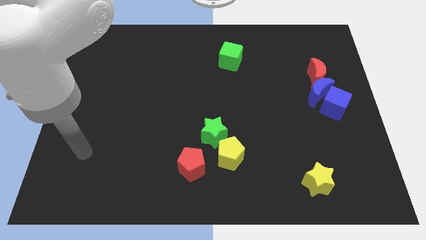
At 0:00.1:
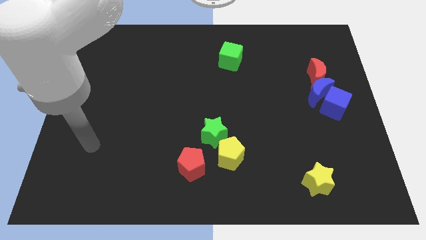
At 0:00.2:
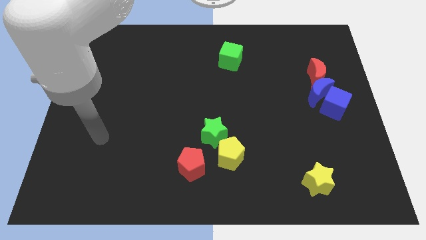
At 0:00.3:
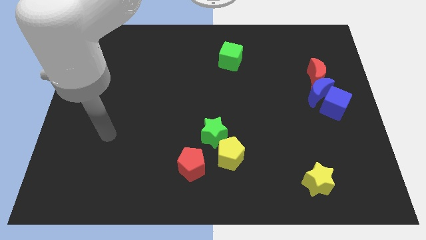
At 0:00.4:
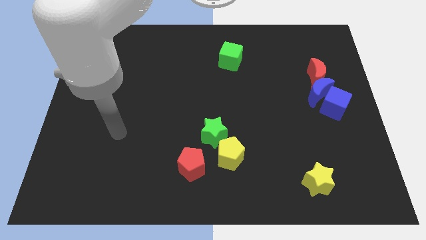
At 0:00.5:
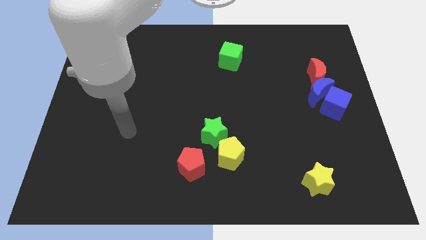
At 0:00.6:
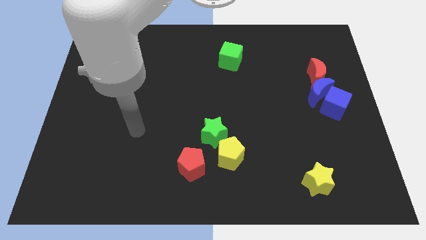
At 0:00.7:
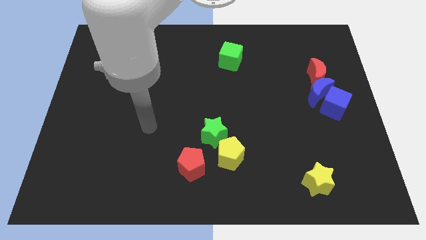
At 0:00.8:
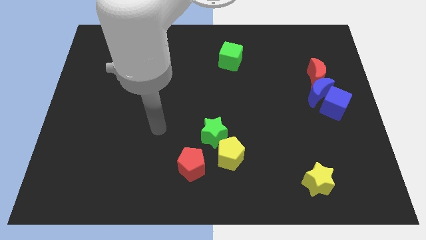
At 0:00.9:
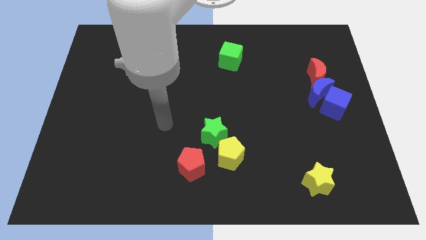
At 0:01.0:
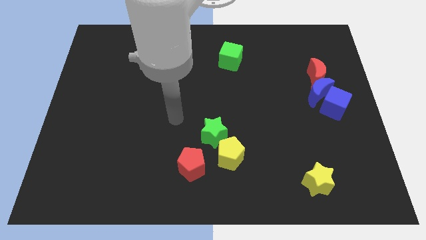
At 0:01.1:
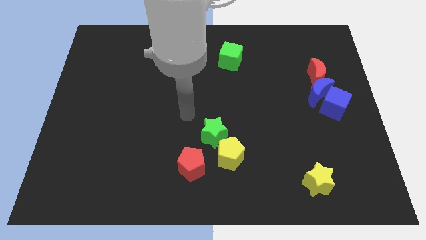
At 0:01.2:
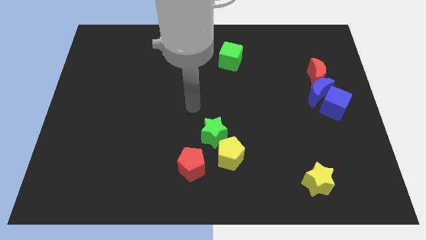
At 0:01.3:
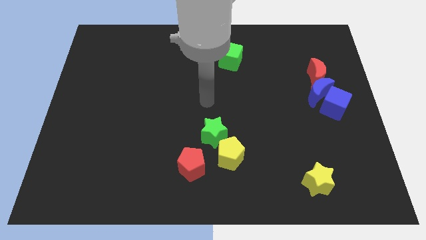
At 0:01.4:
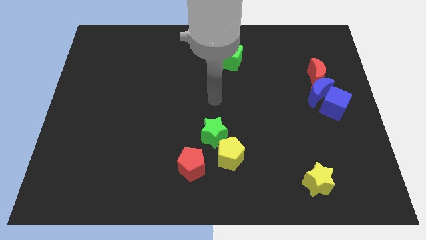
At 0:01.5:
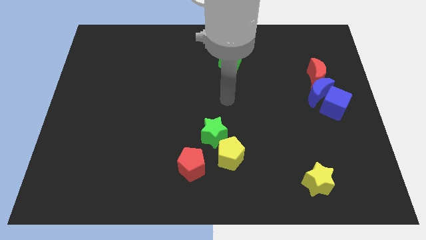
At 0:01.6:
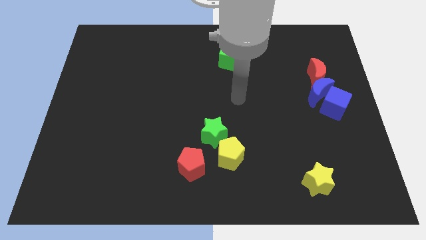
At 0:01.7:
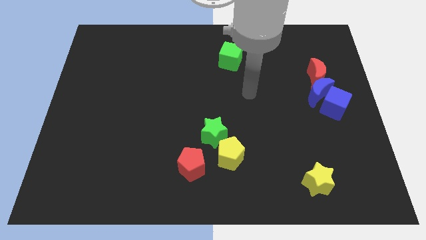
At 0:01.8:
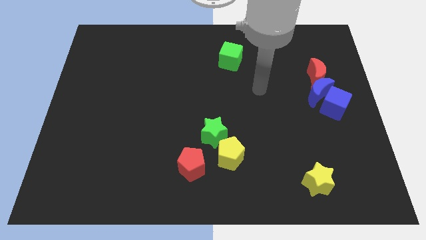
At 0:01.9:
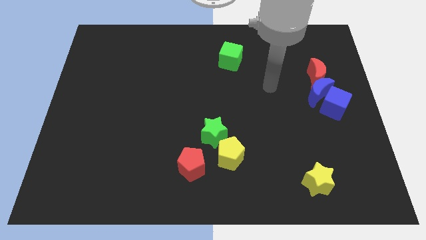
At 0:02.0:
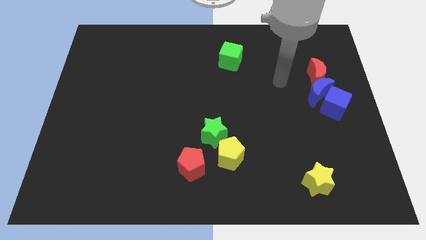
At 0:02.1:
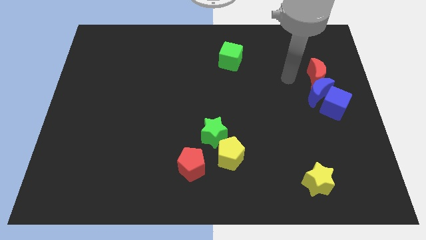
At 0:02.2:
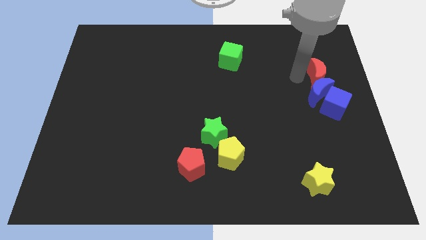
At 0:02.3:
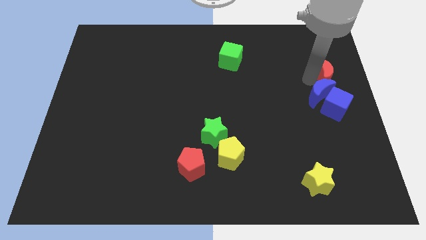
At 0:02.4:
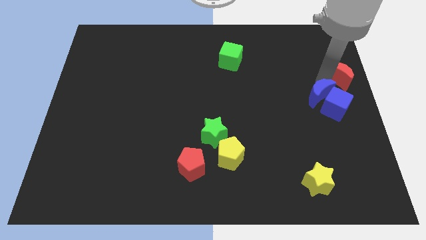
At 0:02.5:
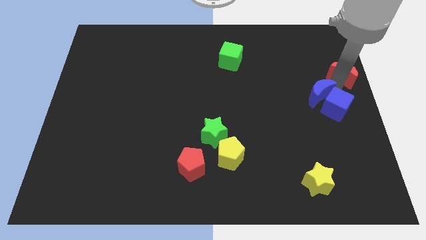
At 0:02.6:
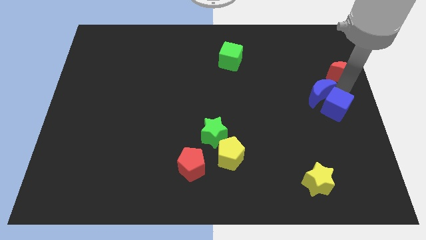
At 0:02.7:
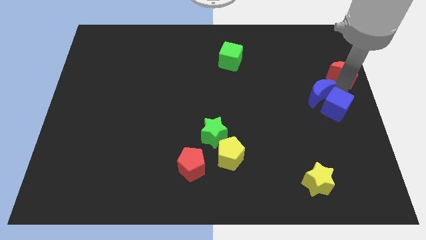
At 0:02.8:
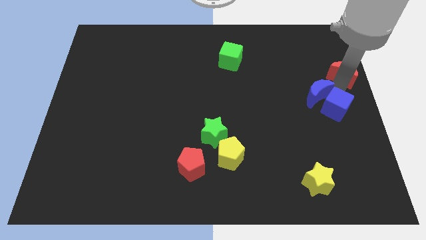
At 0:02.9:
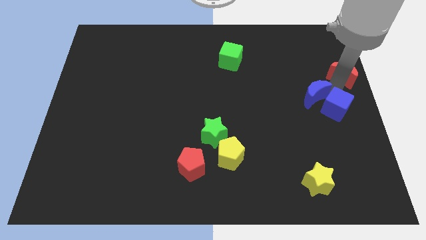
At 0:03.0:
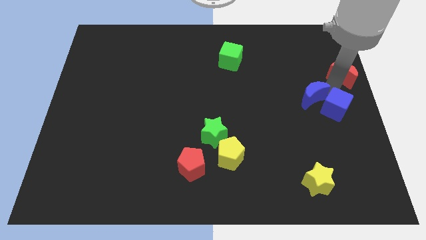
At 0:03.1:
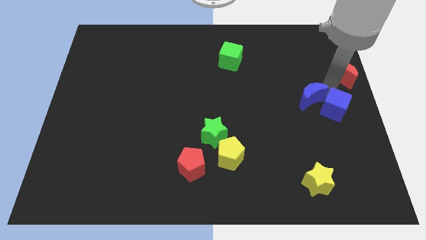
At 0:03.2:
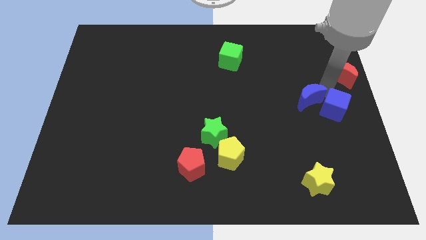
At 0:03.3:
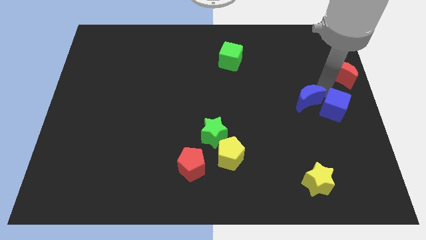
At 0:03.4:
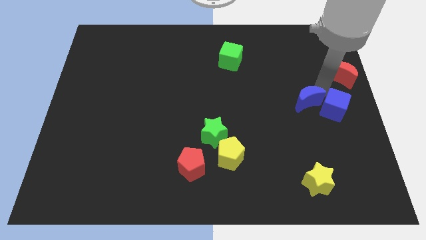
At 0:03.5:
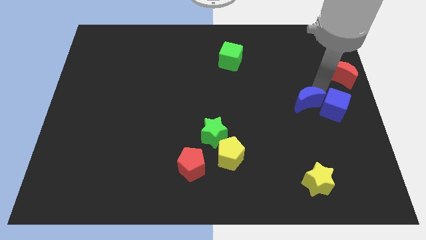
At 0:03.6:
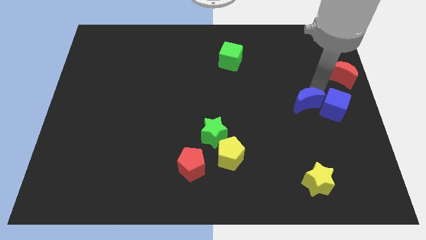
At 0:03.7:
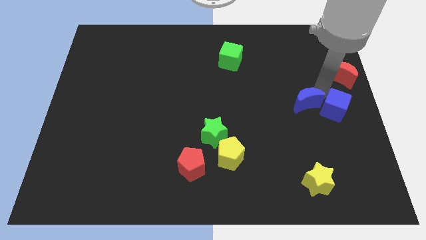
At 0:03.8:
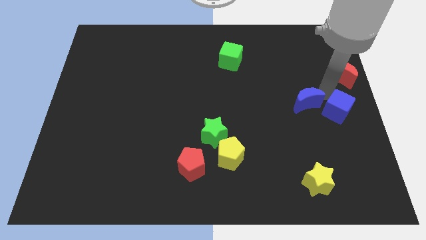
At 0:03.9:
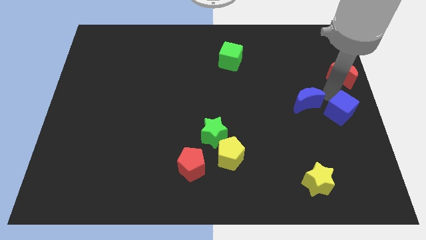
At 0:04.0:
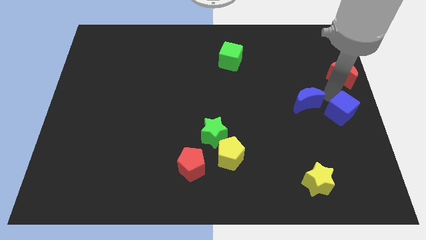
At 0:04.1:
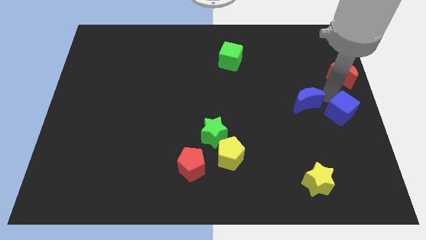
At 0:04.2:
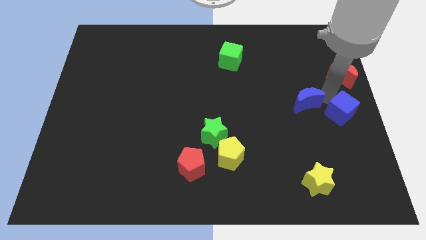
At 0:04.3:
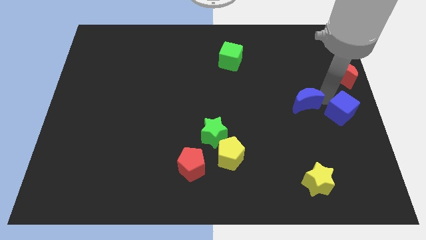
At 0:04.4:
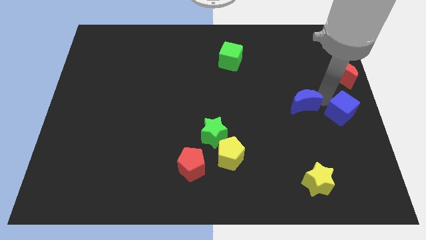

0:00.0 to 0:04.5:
pull the blue moon apart from the blue cube and red moon

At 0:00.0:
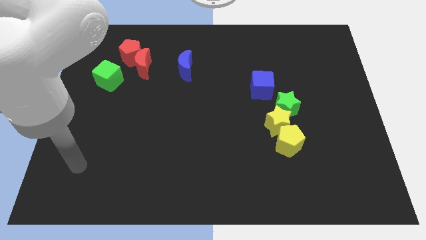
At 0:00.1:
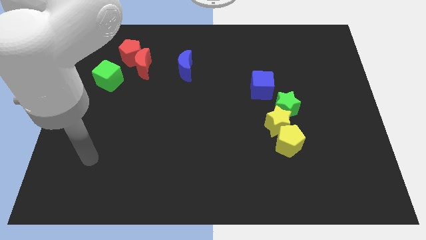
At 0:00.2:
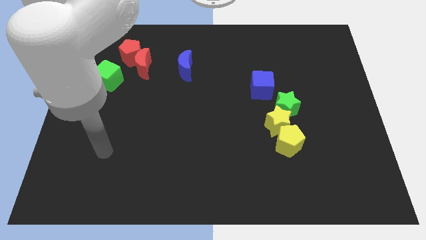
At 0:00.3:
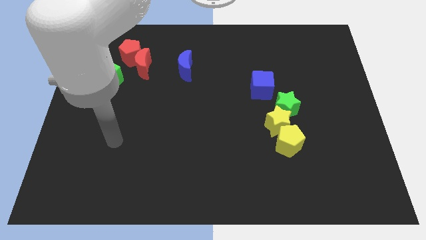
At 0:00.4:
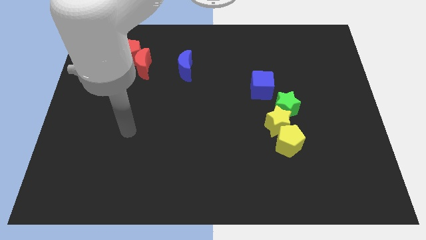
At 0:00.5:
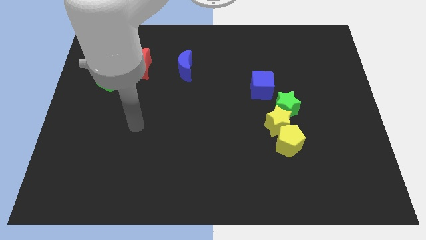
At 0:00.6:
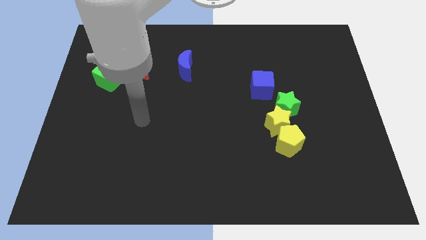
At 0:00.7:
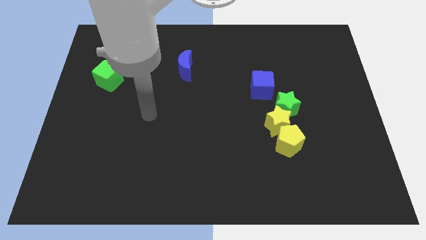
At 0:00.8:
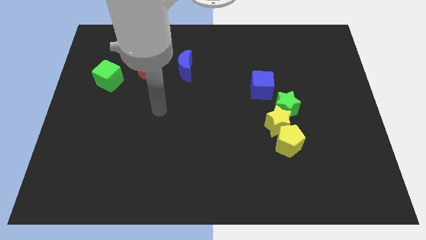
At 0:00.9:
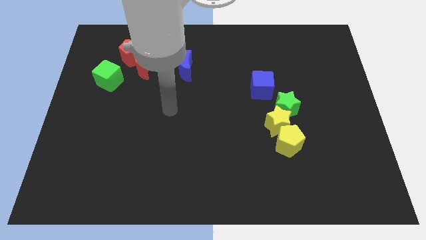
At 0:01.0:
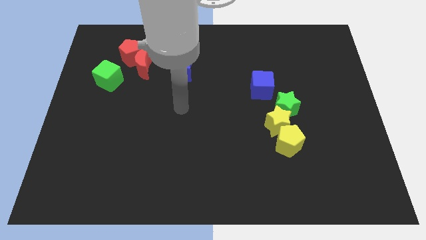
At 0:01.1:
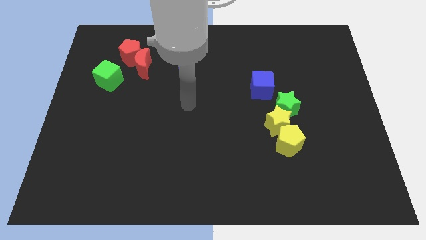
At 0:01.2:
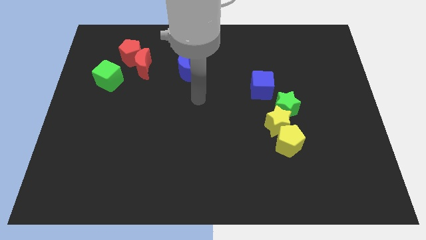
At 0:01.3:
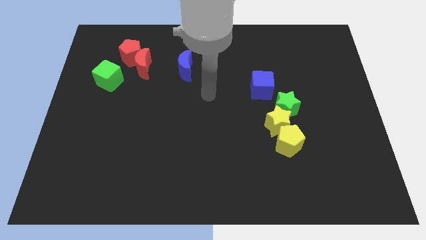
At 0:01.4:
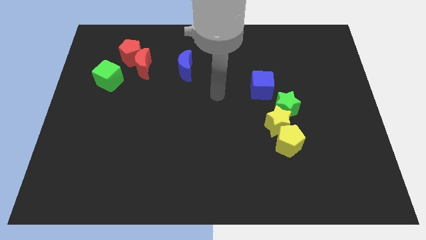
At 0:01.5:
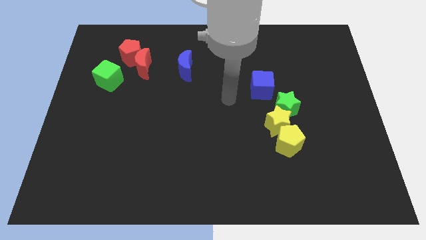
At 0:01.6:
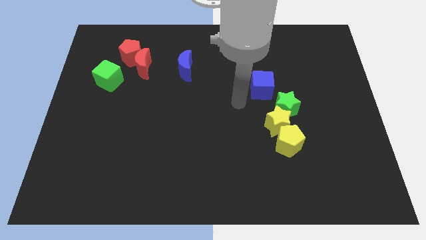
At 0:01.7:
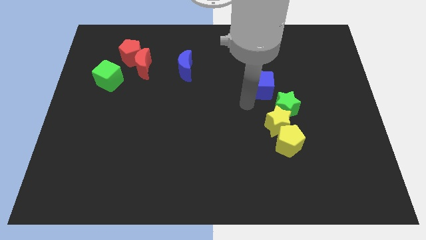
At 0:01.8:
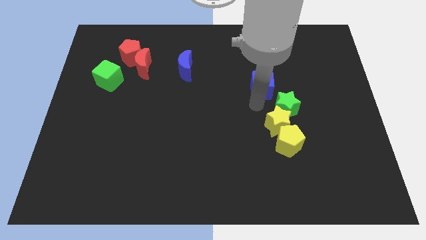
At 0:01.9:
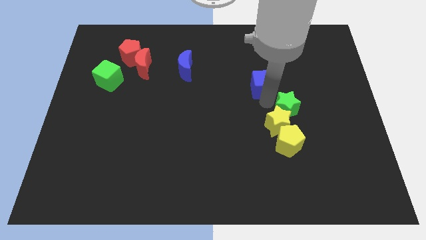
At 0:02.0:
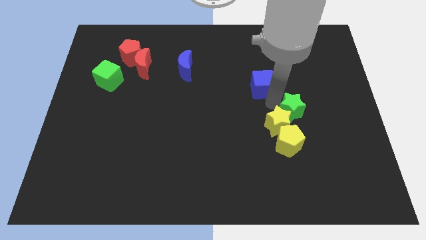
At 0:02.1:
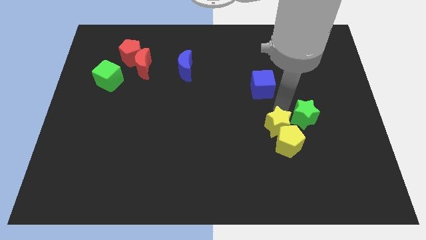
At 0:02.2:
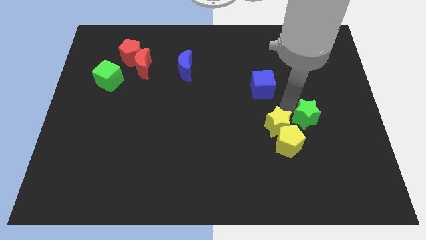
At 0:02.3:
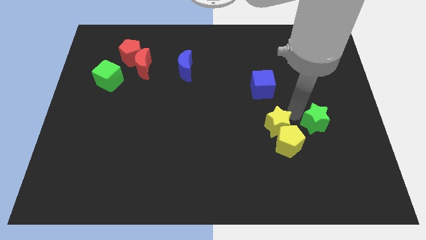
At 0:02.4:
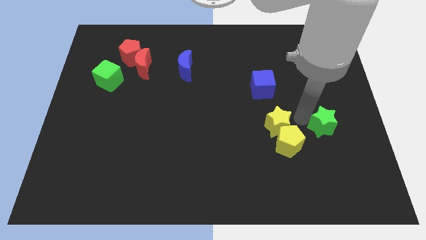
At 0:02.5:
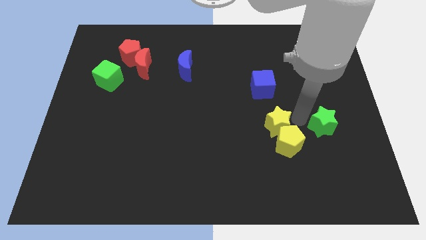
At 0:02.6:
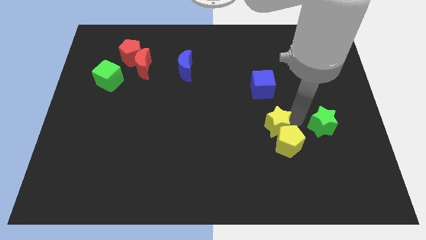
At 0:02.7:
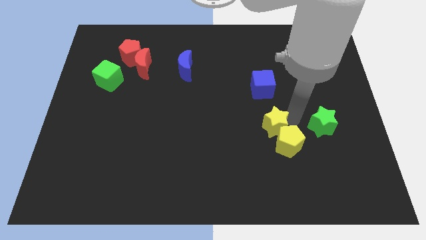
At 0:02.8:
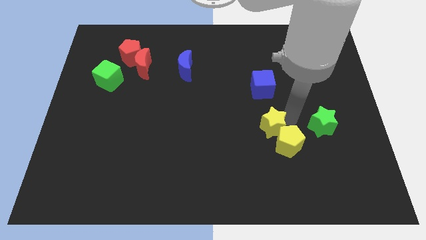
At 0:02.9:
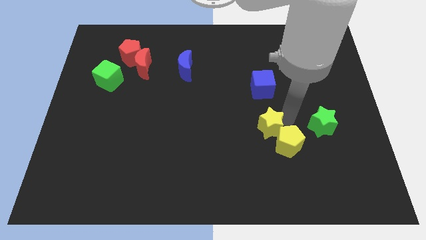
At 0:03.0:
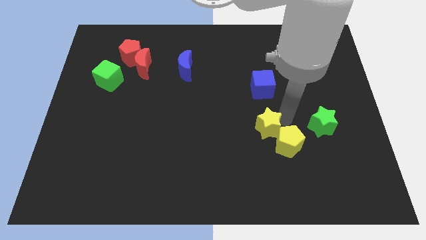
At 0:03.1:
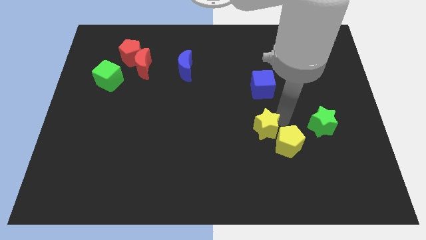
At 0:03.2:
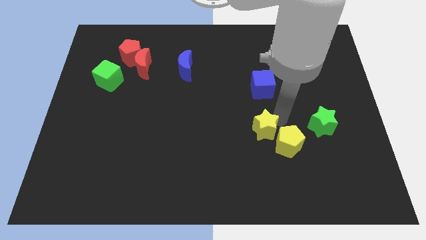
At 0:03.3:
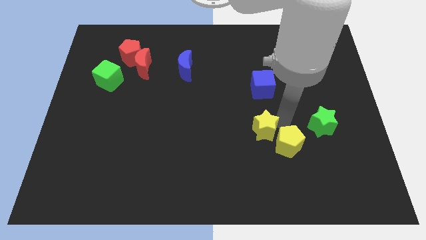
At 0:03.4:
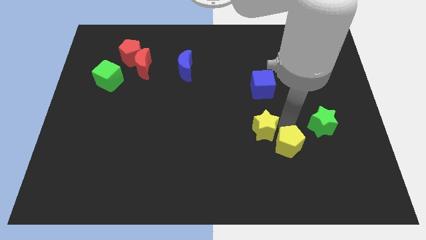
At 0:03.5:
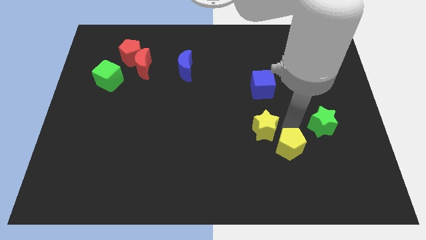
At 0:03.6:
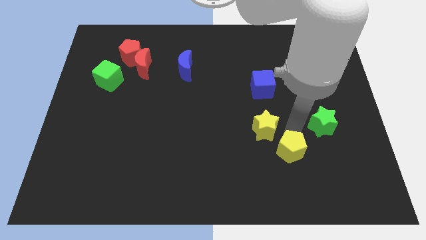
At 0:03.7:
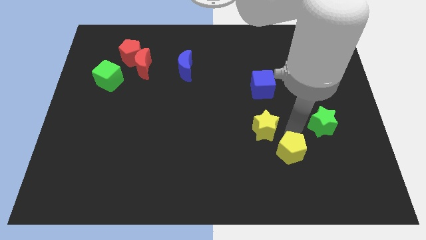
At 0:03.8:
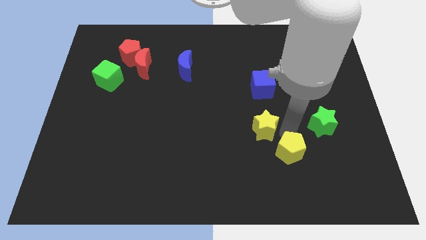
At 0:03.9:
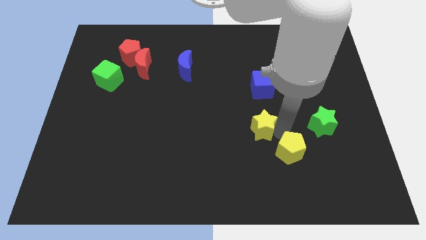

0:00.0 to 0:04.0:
pull the yellow star apart from the green star and yellow pentagon

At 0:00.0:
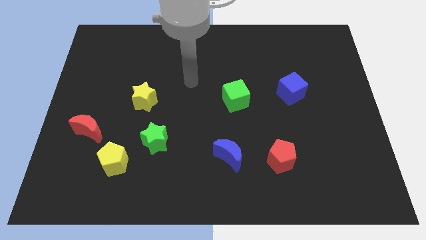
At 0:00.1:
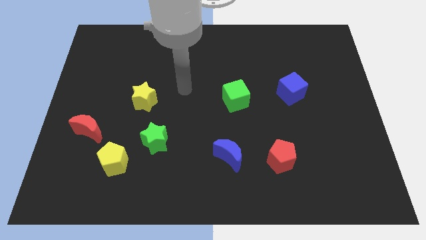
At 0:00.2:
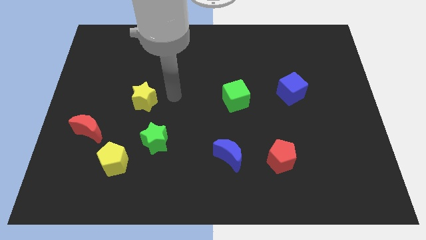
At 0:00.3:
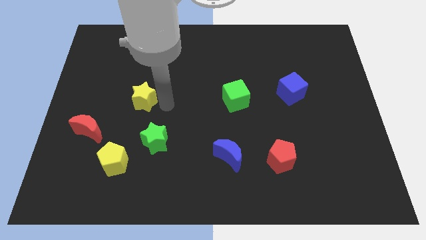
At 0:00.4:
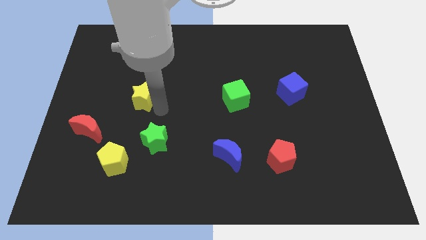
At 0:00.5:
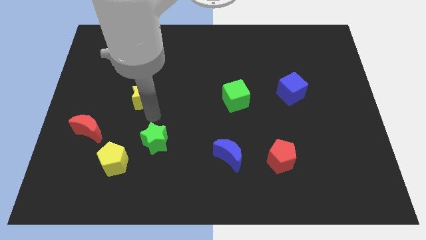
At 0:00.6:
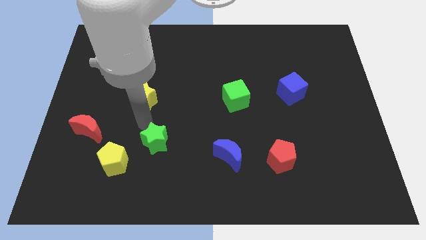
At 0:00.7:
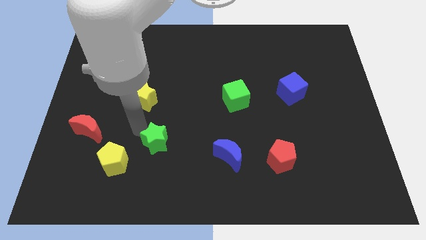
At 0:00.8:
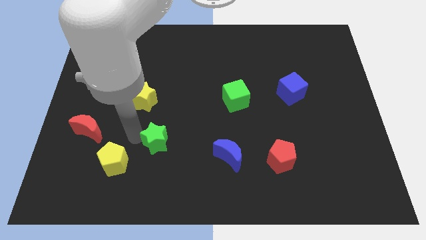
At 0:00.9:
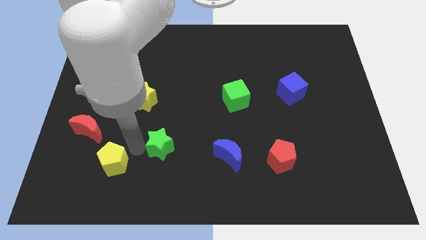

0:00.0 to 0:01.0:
pull the green star apart from the yellow pentagon
